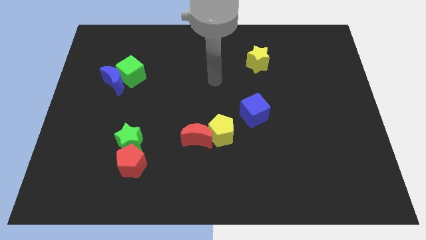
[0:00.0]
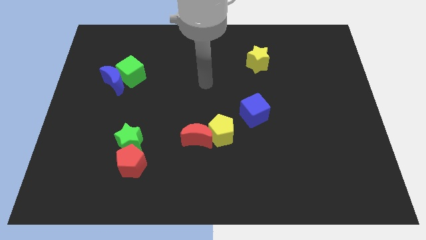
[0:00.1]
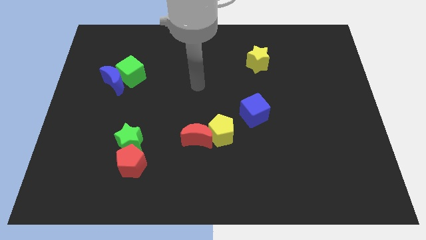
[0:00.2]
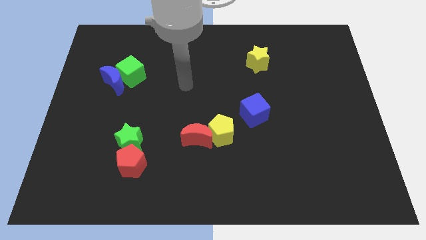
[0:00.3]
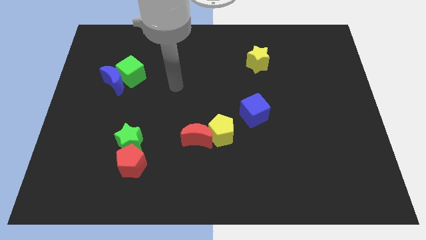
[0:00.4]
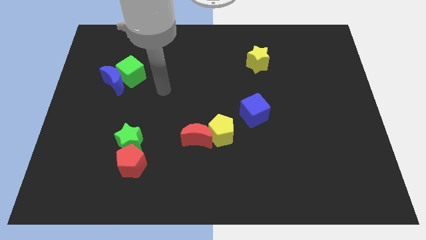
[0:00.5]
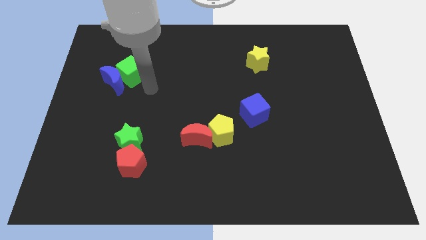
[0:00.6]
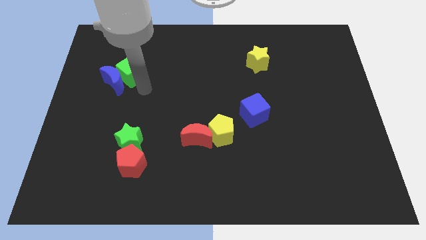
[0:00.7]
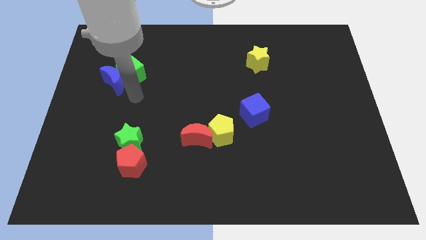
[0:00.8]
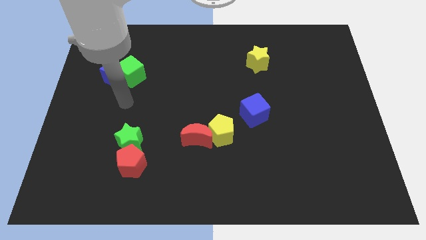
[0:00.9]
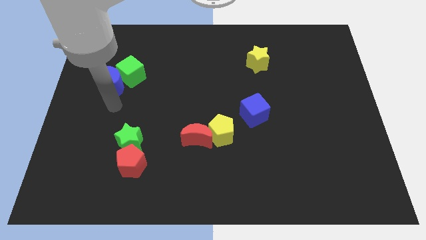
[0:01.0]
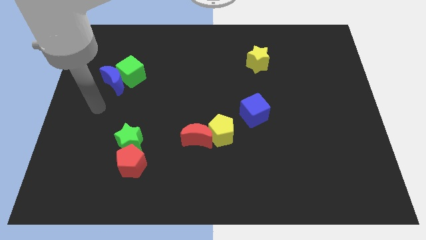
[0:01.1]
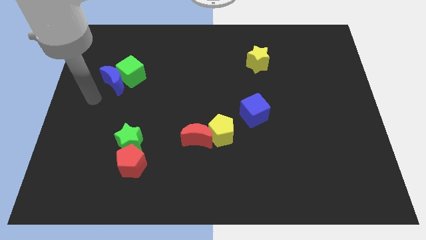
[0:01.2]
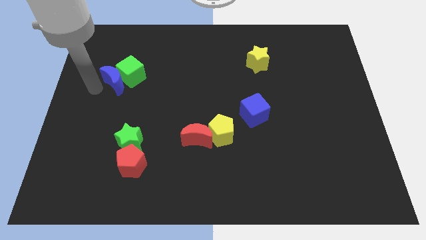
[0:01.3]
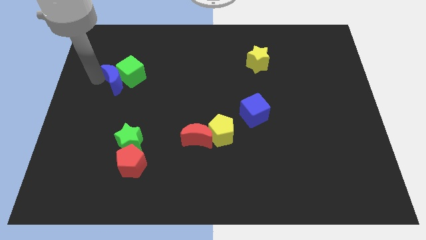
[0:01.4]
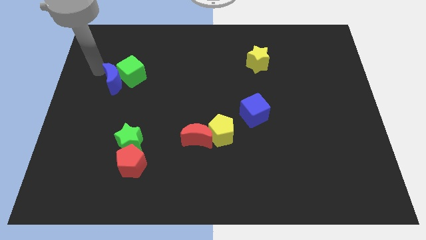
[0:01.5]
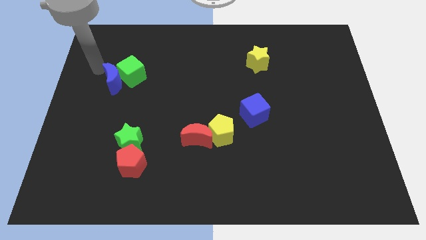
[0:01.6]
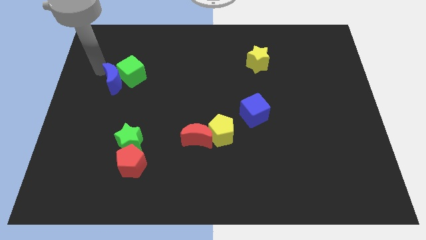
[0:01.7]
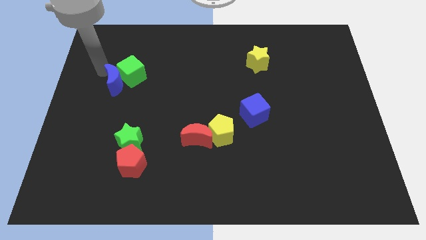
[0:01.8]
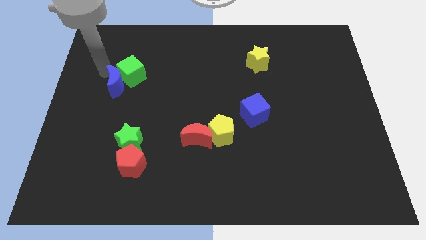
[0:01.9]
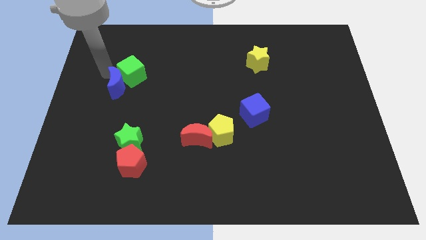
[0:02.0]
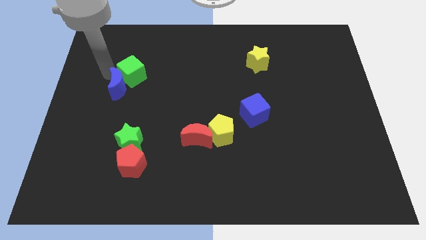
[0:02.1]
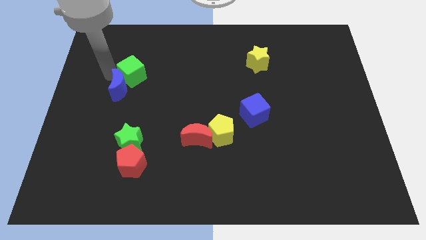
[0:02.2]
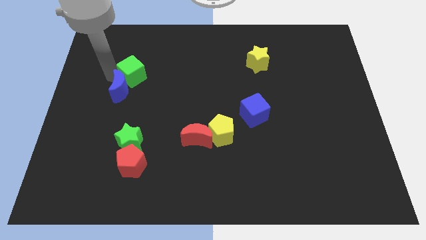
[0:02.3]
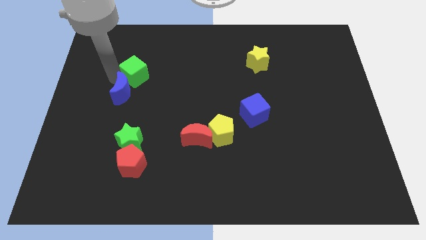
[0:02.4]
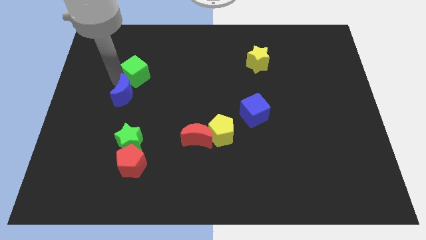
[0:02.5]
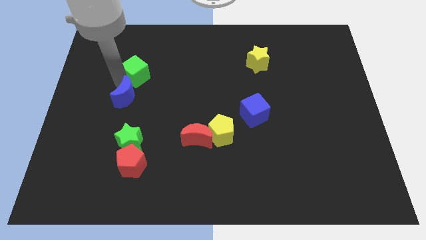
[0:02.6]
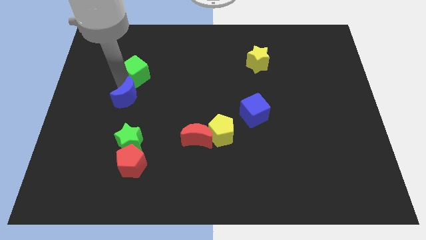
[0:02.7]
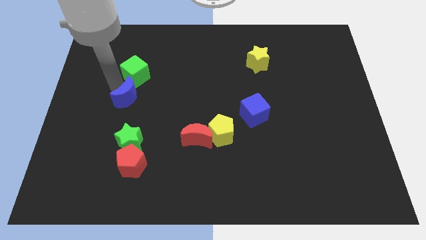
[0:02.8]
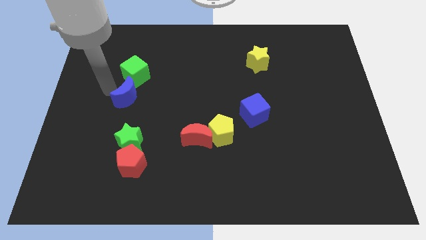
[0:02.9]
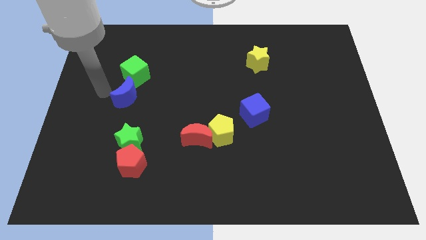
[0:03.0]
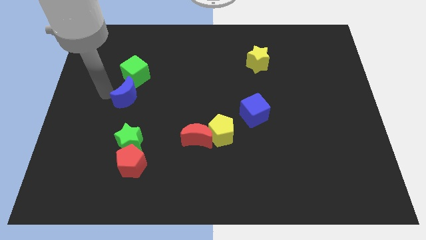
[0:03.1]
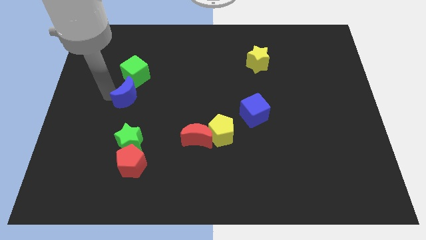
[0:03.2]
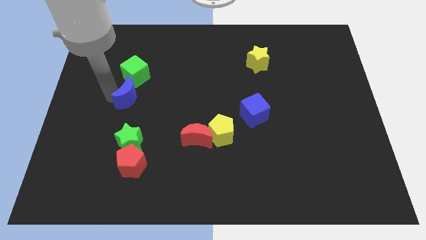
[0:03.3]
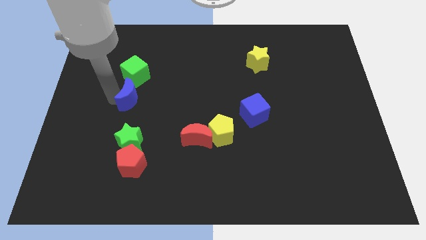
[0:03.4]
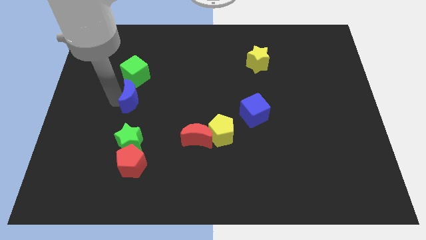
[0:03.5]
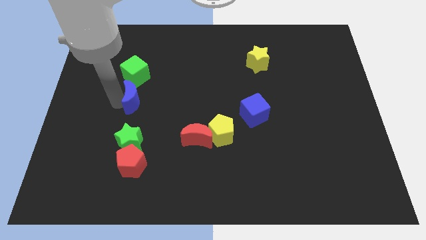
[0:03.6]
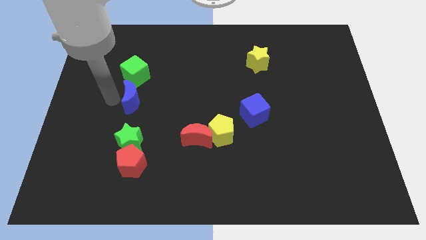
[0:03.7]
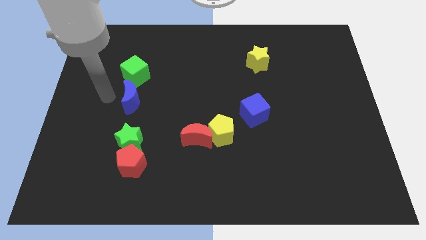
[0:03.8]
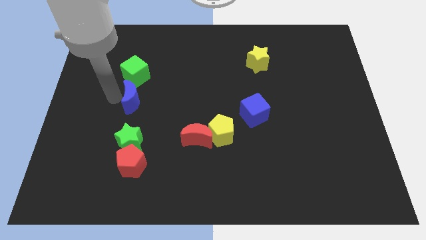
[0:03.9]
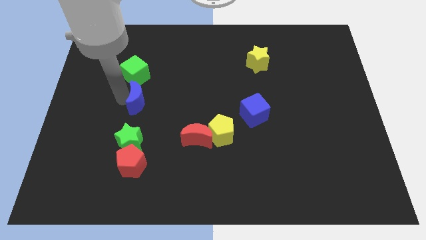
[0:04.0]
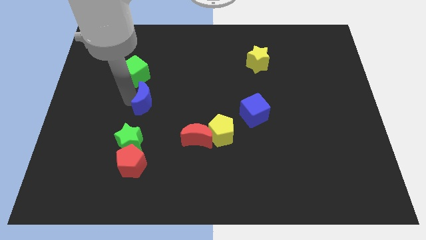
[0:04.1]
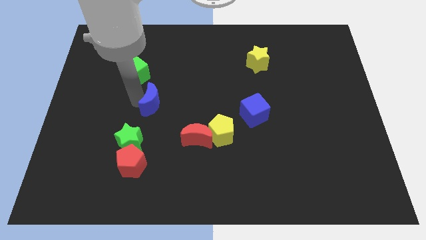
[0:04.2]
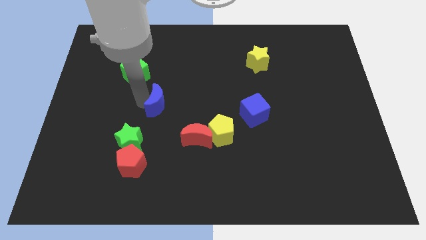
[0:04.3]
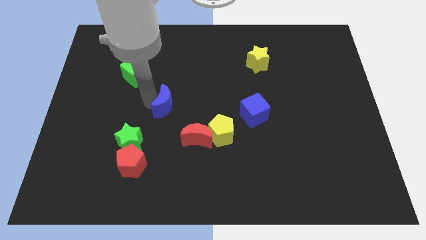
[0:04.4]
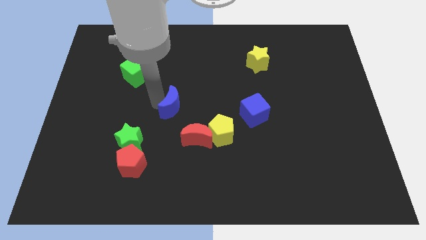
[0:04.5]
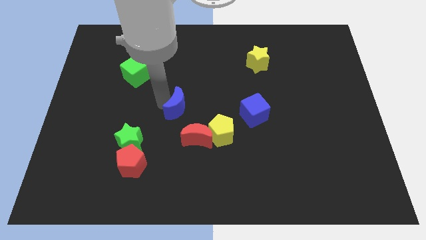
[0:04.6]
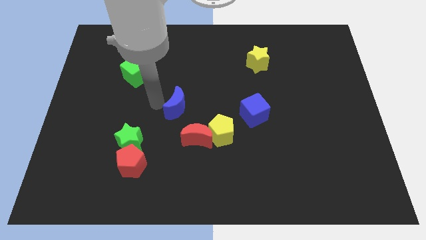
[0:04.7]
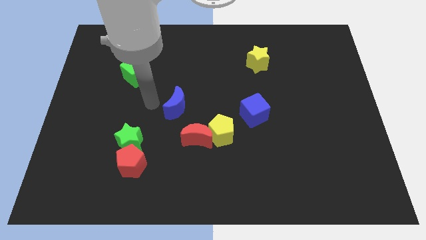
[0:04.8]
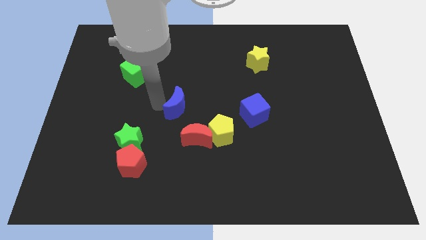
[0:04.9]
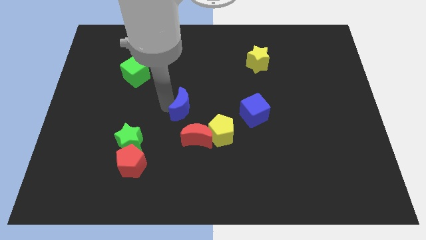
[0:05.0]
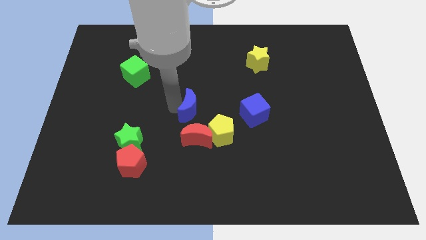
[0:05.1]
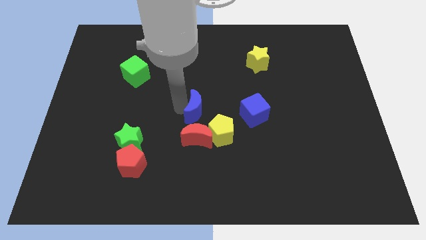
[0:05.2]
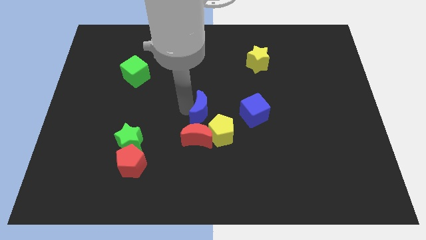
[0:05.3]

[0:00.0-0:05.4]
slide the blue moon to the top right of the red moon
